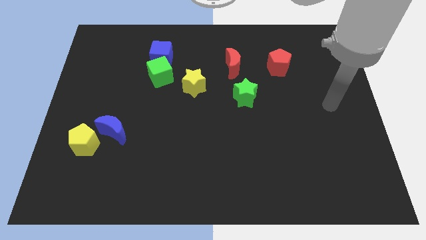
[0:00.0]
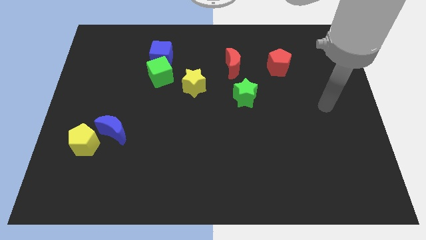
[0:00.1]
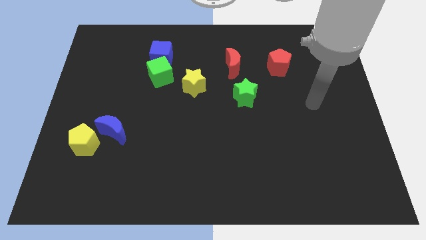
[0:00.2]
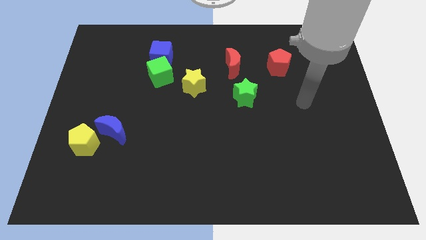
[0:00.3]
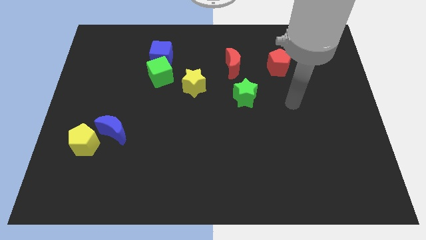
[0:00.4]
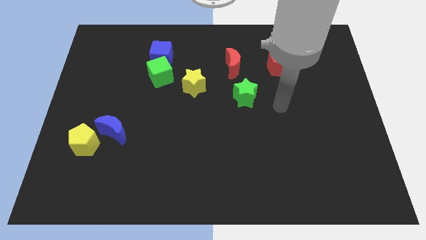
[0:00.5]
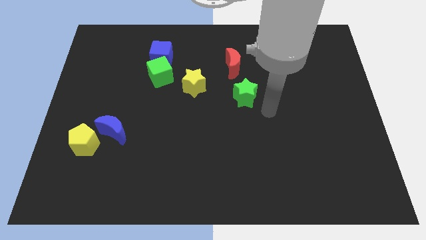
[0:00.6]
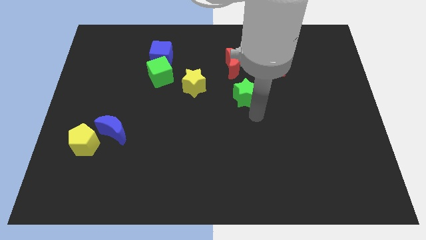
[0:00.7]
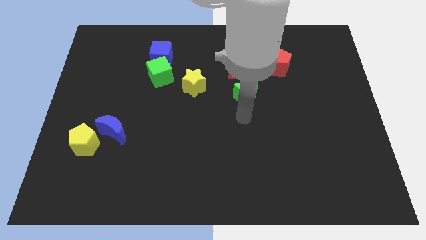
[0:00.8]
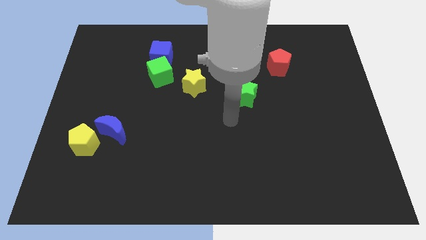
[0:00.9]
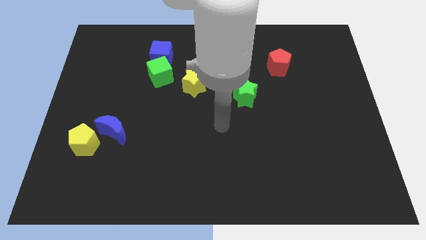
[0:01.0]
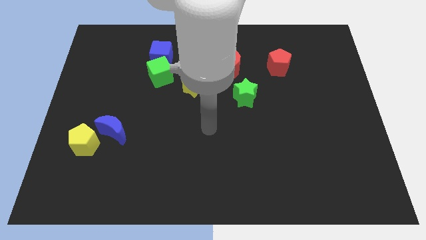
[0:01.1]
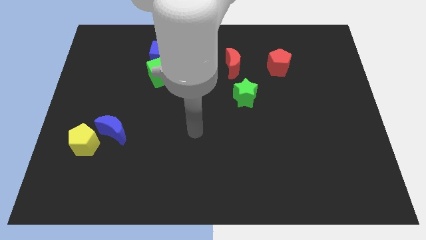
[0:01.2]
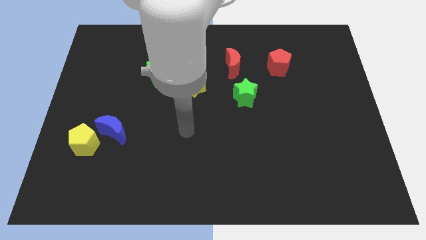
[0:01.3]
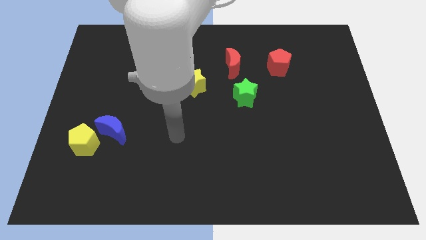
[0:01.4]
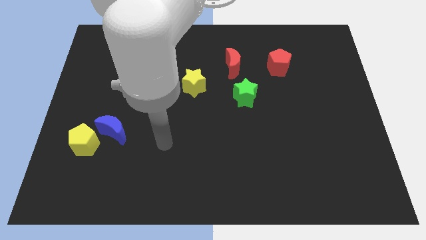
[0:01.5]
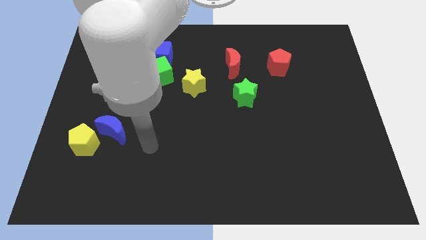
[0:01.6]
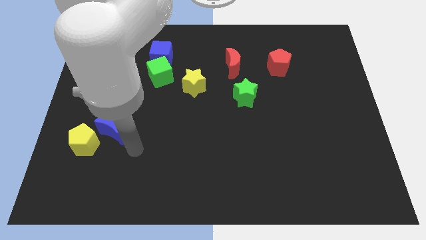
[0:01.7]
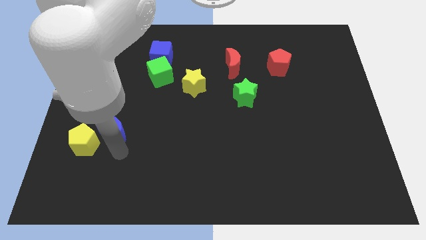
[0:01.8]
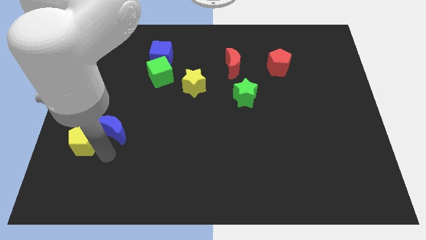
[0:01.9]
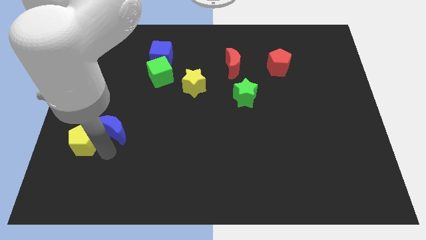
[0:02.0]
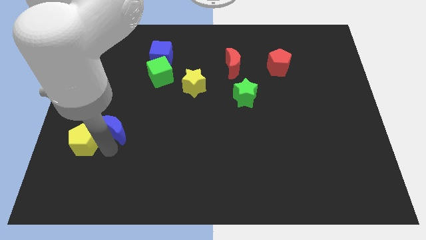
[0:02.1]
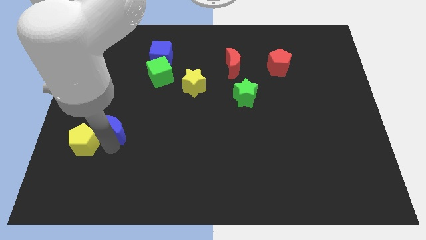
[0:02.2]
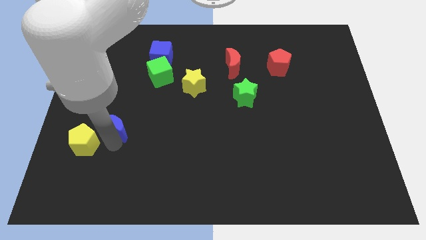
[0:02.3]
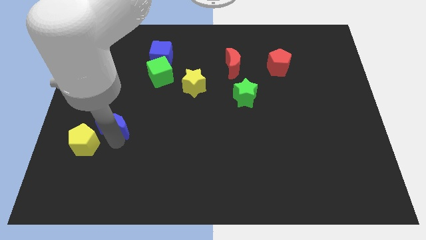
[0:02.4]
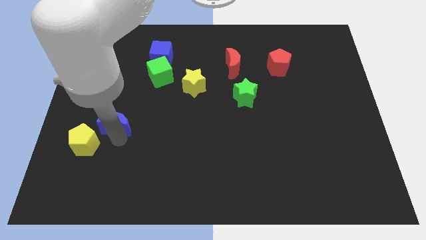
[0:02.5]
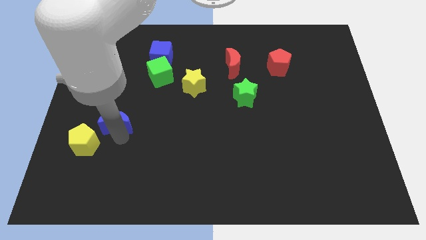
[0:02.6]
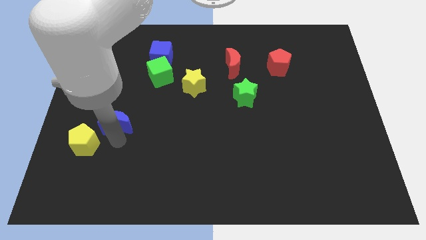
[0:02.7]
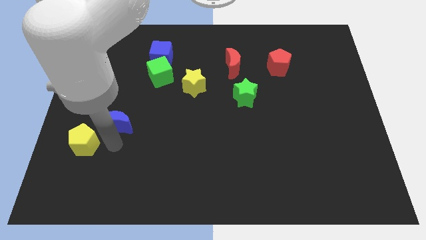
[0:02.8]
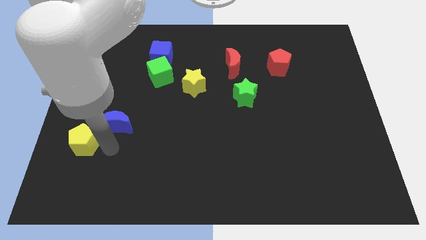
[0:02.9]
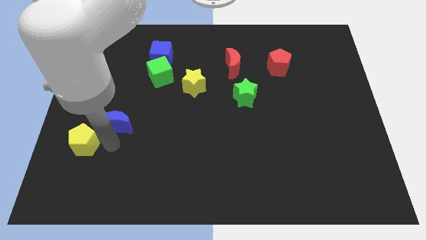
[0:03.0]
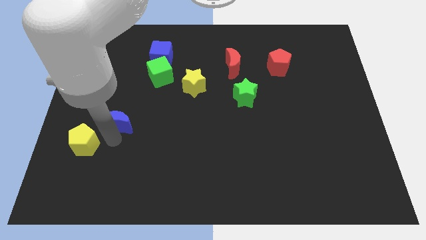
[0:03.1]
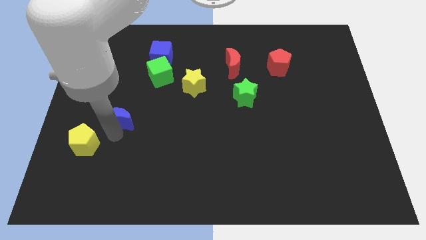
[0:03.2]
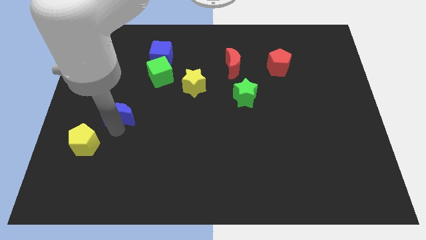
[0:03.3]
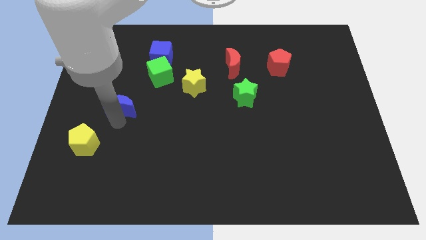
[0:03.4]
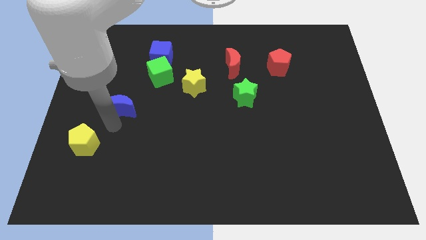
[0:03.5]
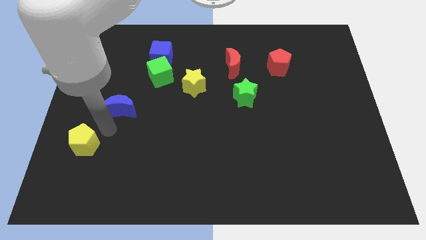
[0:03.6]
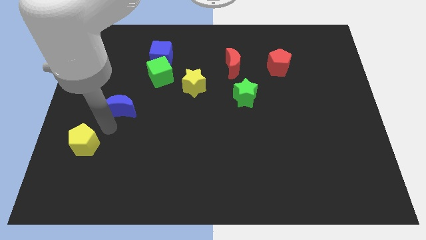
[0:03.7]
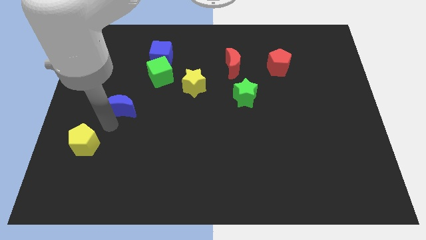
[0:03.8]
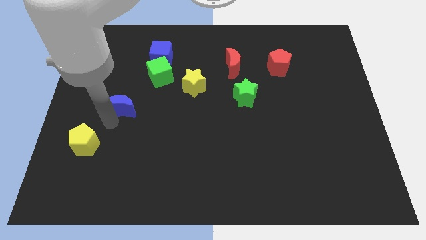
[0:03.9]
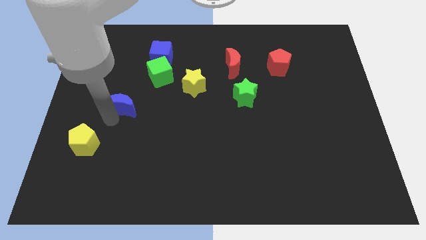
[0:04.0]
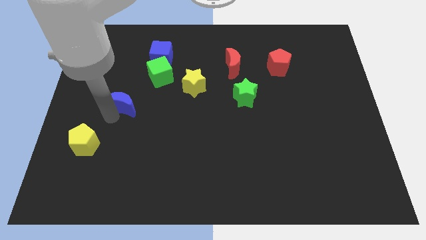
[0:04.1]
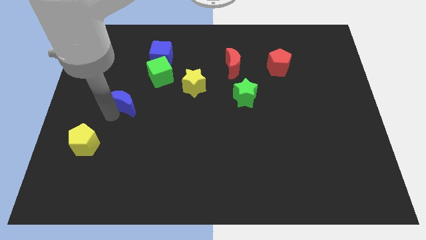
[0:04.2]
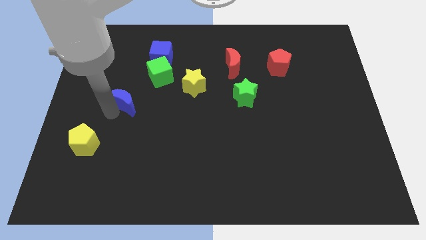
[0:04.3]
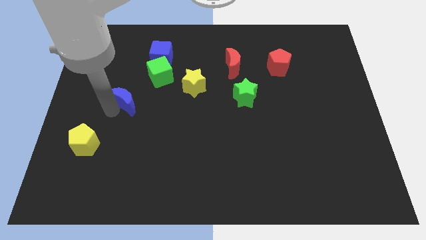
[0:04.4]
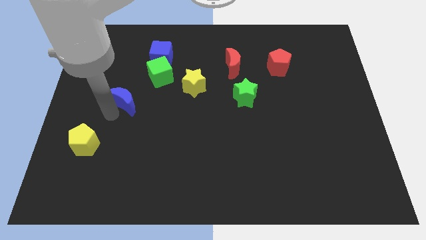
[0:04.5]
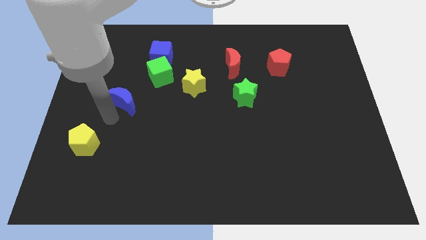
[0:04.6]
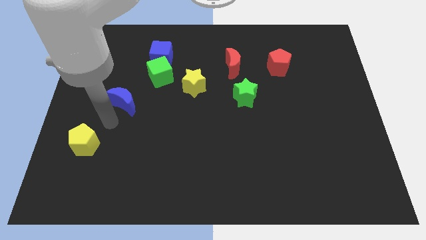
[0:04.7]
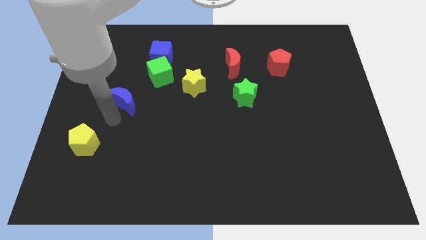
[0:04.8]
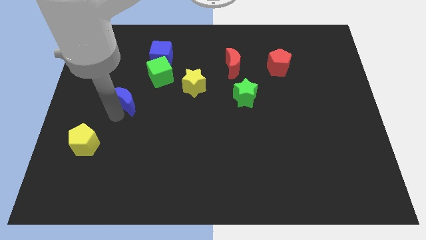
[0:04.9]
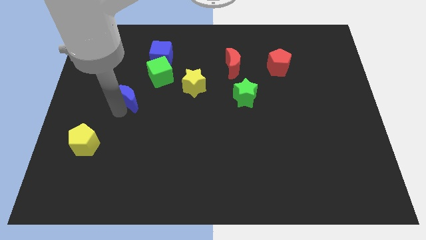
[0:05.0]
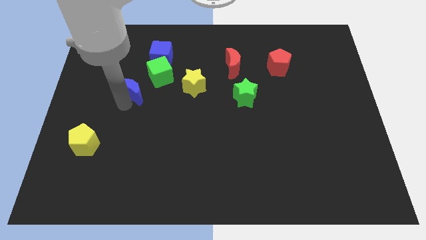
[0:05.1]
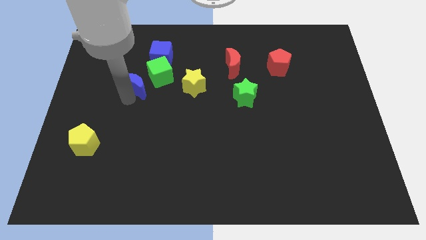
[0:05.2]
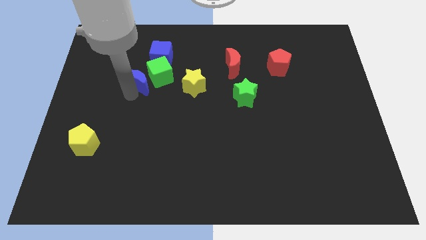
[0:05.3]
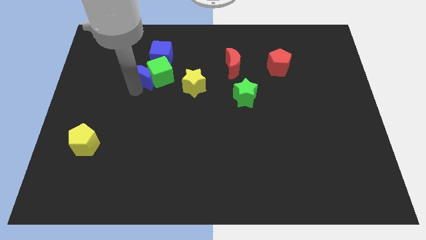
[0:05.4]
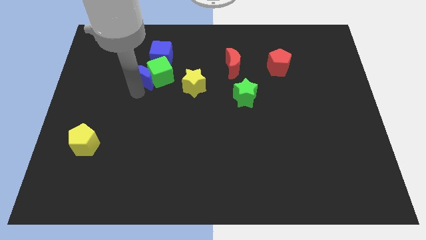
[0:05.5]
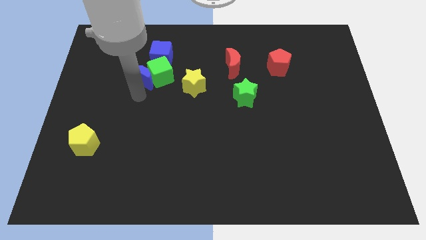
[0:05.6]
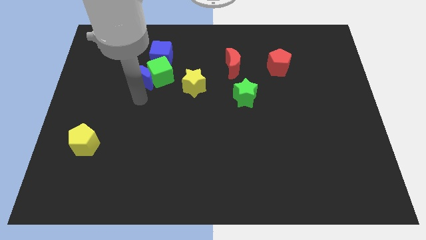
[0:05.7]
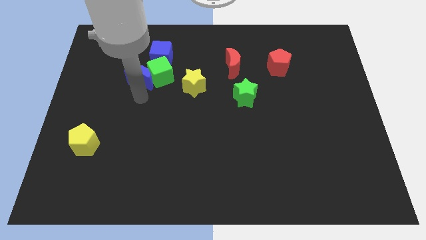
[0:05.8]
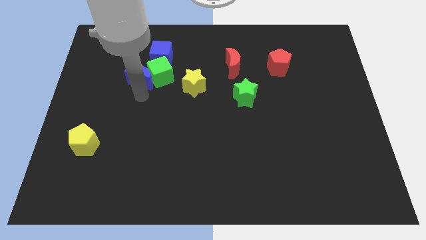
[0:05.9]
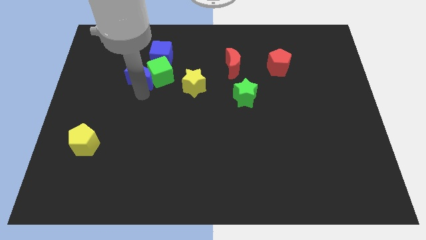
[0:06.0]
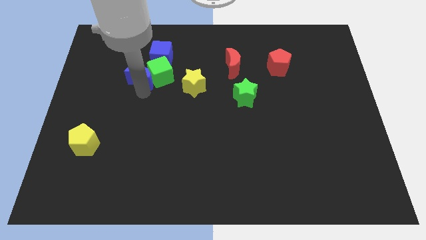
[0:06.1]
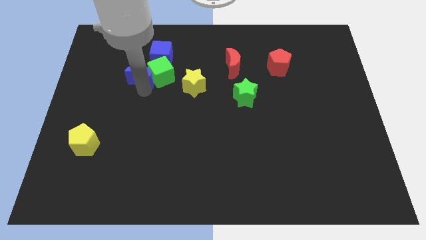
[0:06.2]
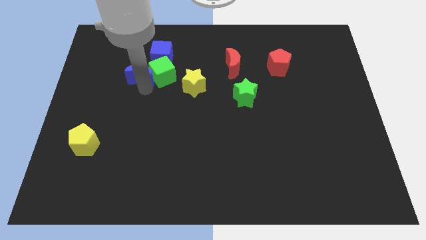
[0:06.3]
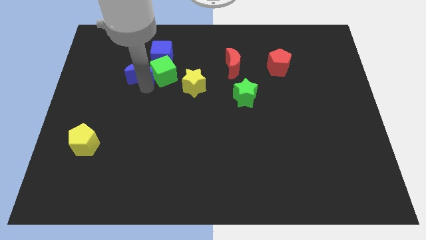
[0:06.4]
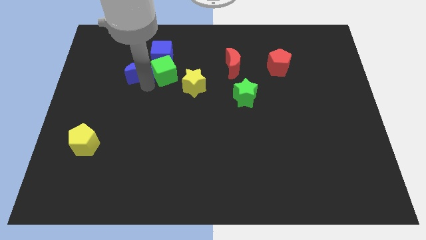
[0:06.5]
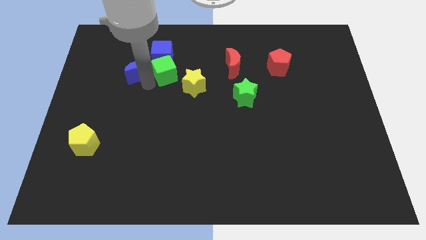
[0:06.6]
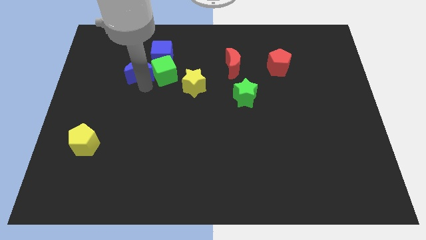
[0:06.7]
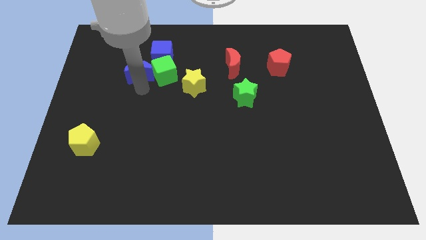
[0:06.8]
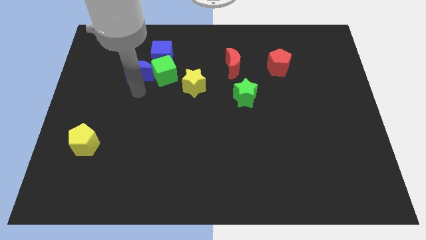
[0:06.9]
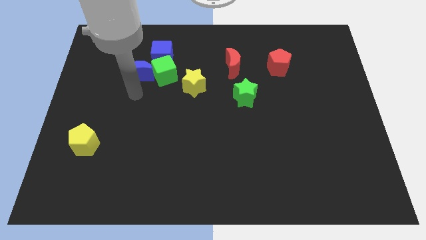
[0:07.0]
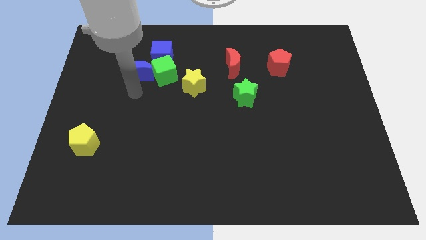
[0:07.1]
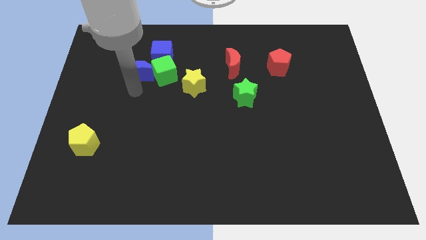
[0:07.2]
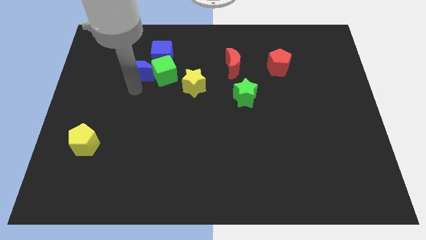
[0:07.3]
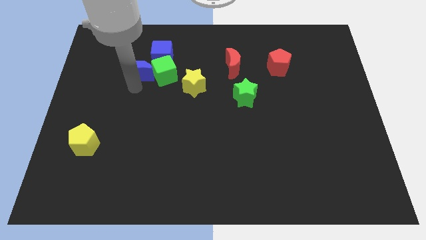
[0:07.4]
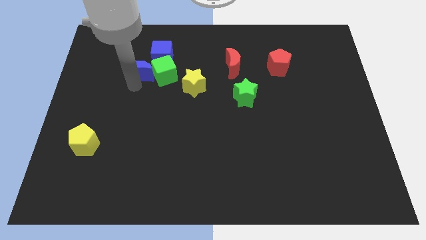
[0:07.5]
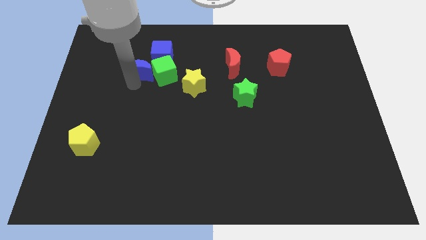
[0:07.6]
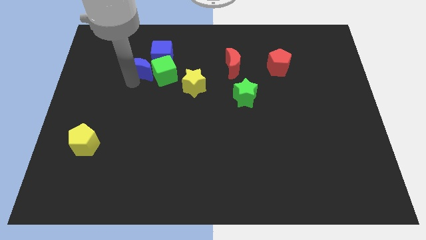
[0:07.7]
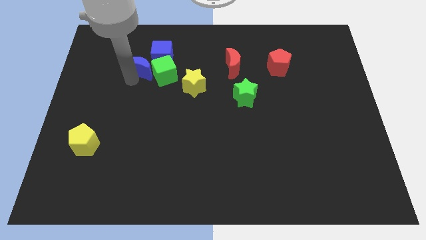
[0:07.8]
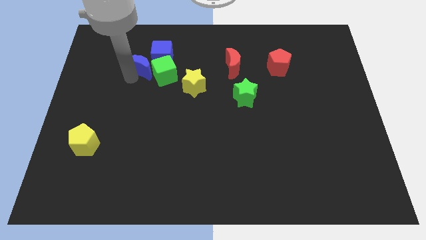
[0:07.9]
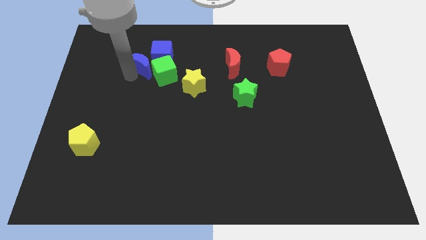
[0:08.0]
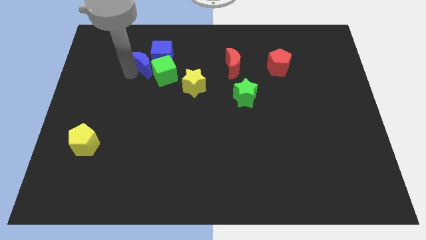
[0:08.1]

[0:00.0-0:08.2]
put the blue moon towards the blue cube
